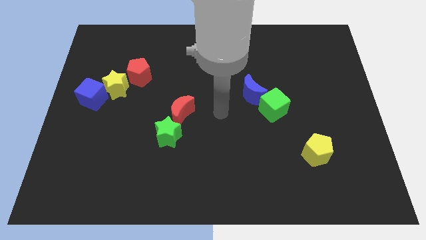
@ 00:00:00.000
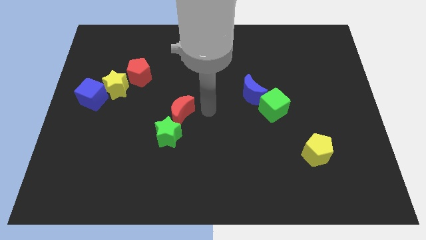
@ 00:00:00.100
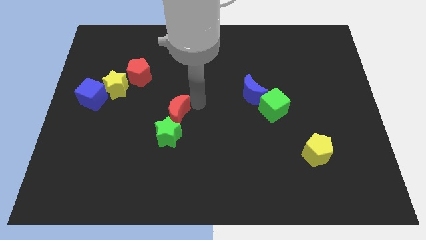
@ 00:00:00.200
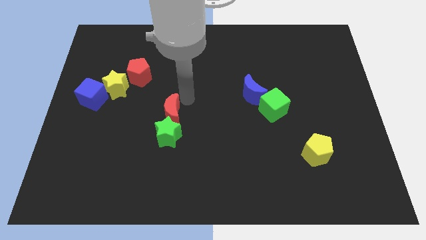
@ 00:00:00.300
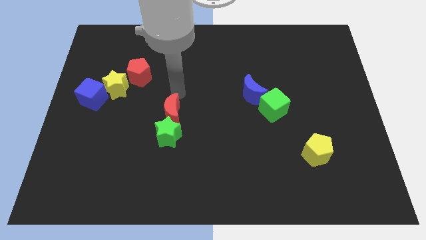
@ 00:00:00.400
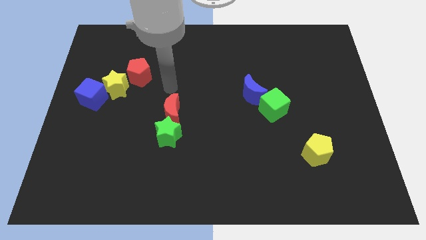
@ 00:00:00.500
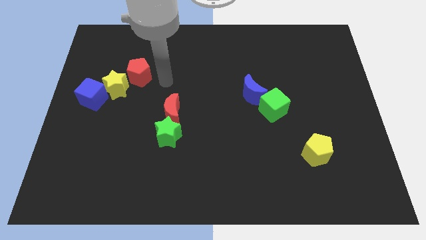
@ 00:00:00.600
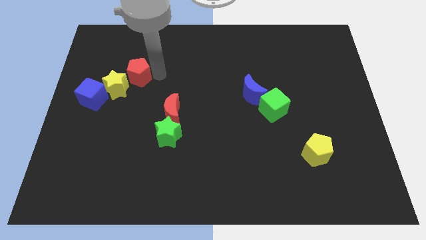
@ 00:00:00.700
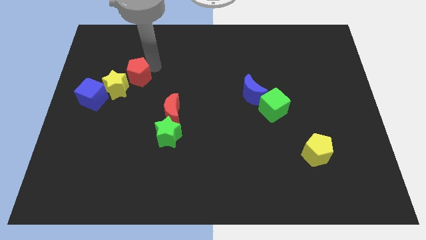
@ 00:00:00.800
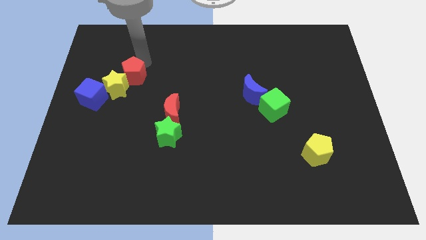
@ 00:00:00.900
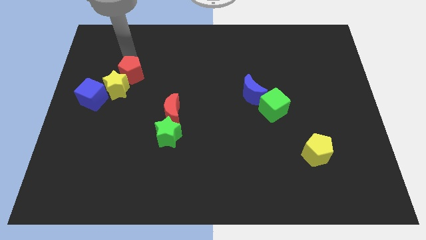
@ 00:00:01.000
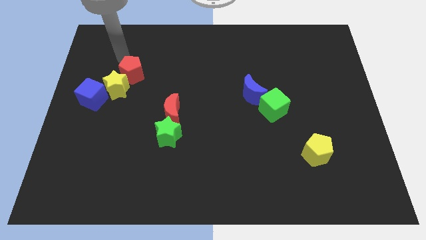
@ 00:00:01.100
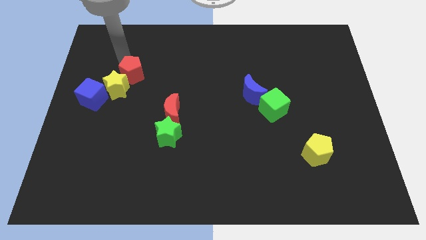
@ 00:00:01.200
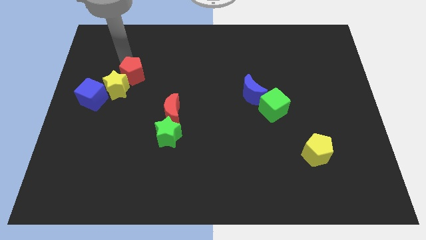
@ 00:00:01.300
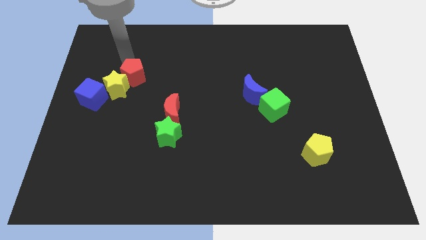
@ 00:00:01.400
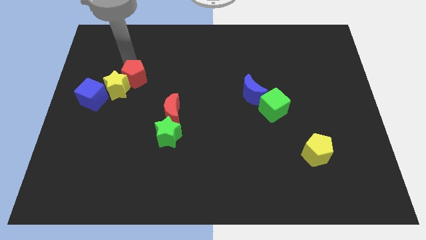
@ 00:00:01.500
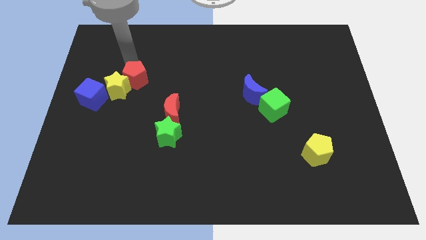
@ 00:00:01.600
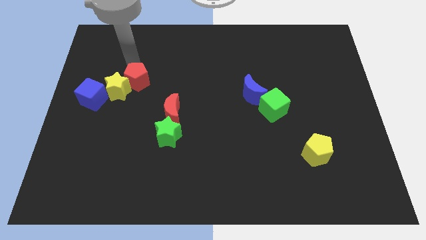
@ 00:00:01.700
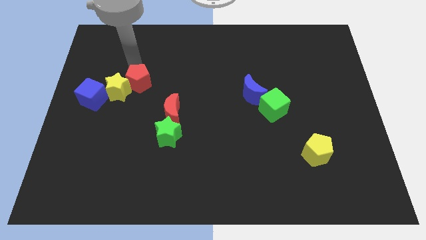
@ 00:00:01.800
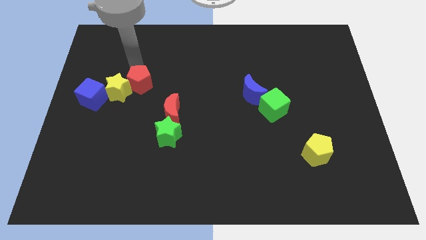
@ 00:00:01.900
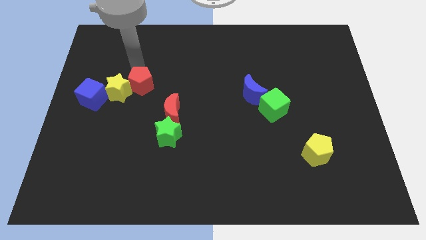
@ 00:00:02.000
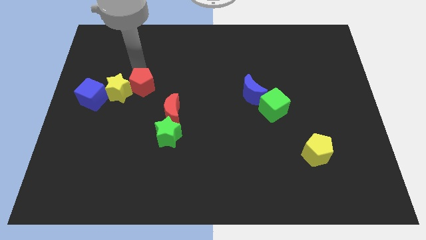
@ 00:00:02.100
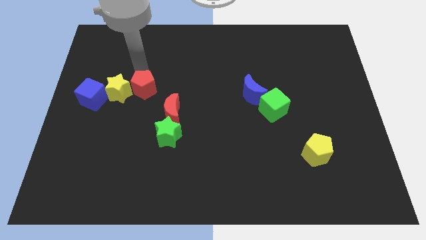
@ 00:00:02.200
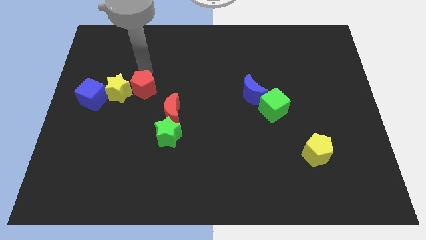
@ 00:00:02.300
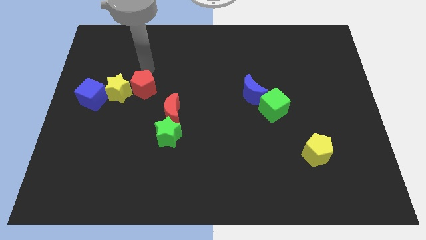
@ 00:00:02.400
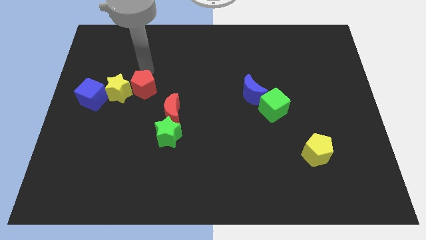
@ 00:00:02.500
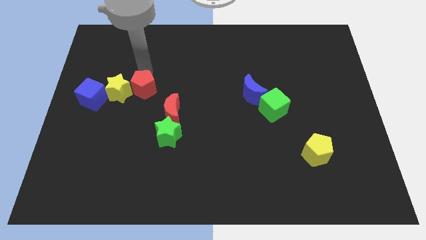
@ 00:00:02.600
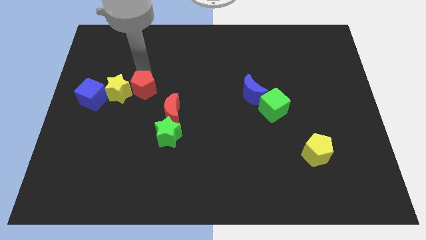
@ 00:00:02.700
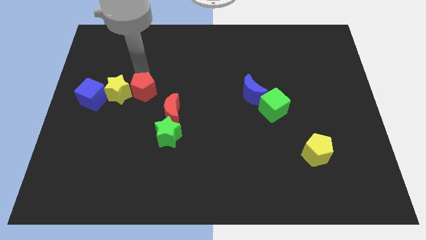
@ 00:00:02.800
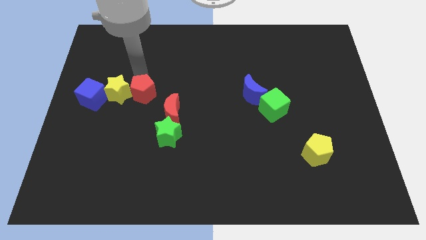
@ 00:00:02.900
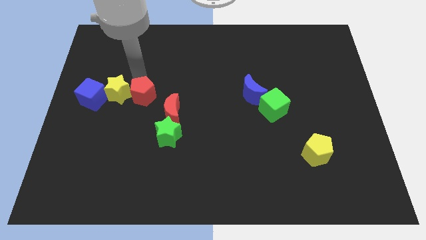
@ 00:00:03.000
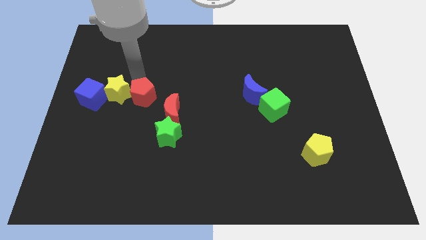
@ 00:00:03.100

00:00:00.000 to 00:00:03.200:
slightly move the red pentagon down

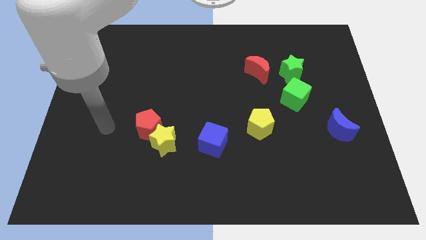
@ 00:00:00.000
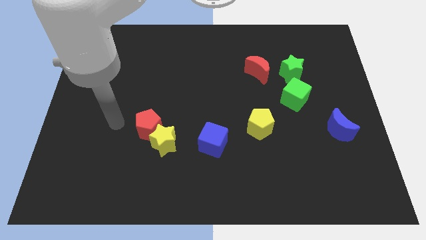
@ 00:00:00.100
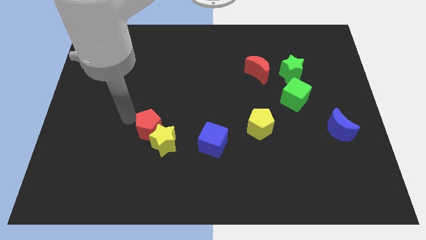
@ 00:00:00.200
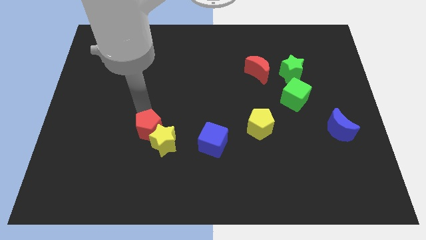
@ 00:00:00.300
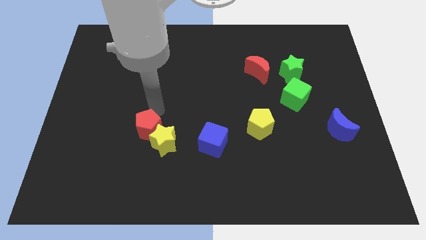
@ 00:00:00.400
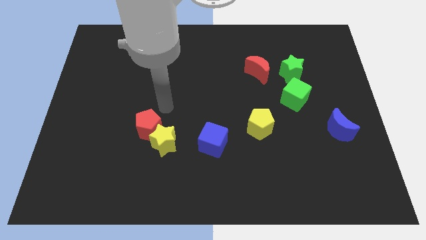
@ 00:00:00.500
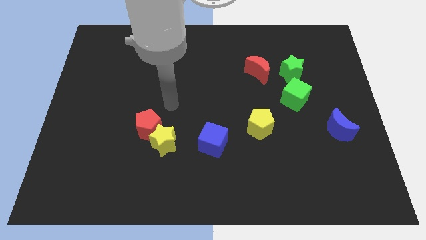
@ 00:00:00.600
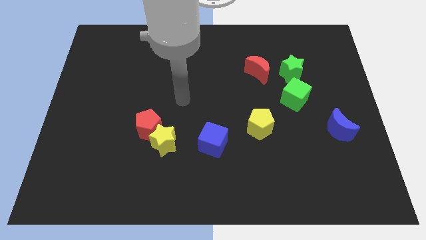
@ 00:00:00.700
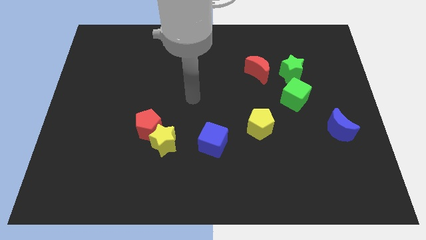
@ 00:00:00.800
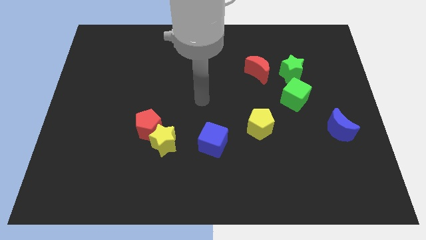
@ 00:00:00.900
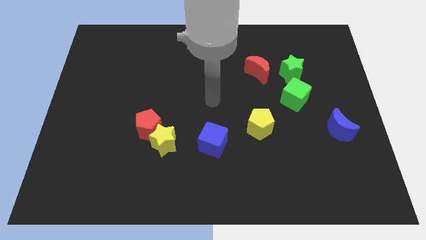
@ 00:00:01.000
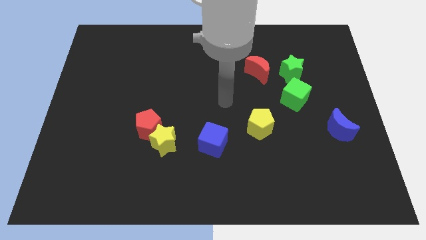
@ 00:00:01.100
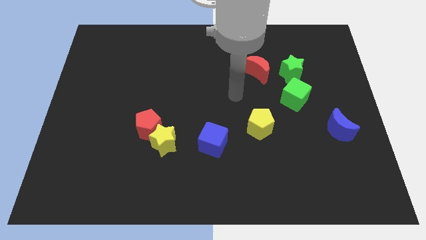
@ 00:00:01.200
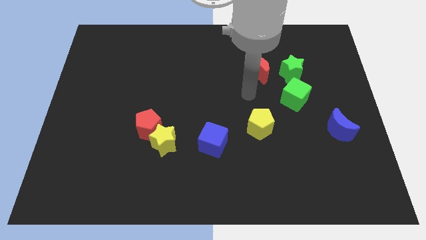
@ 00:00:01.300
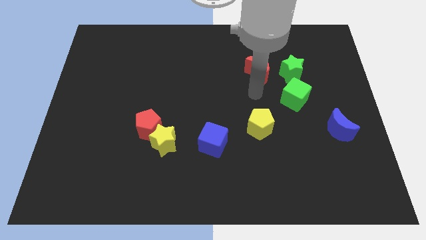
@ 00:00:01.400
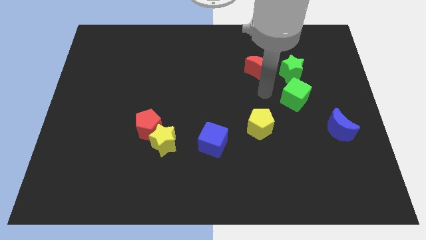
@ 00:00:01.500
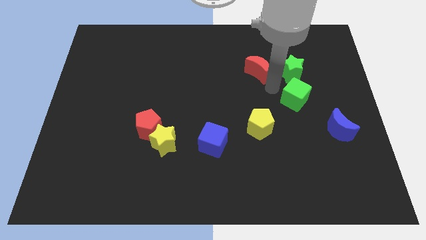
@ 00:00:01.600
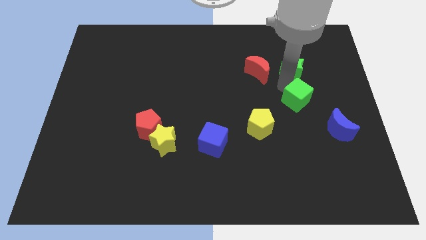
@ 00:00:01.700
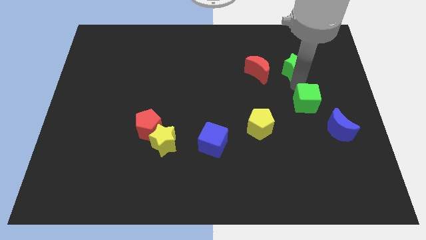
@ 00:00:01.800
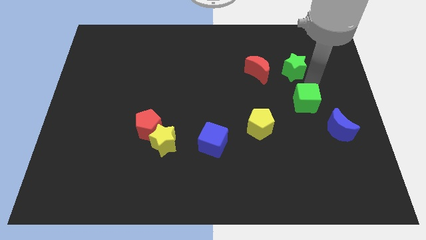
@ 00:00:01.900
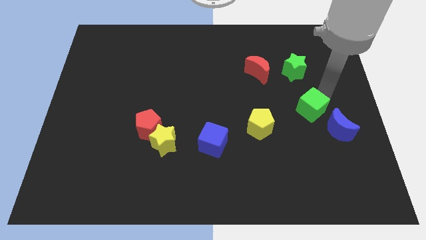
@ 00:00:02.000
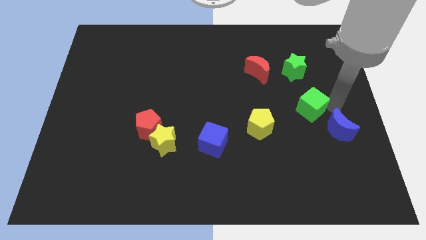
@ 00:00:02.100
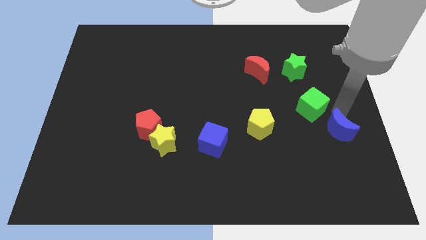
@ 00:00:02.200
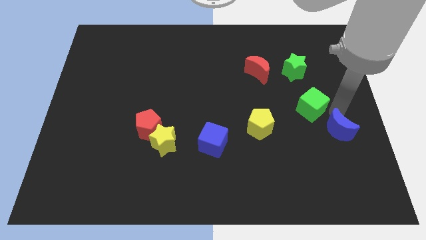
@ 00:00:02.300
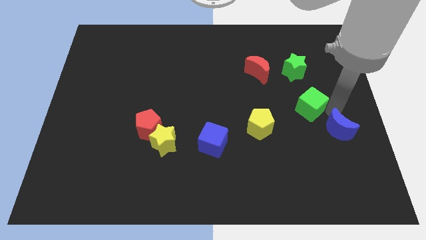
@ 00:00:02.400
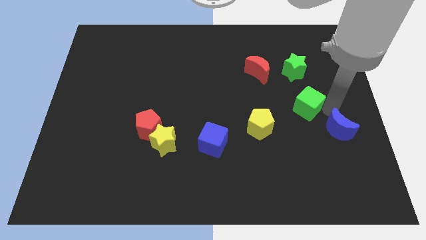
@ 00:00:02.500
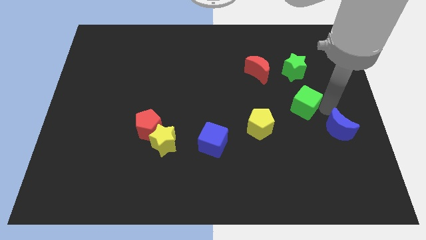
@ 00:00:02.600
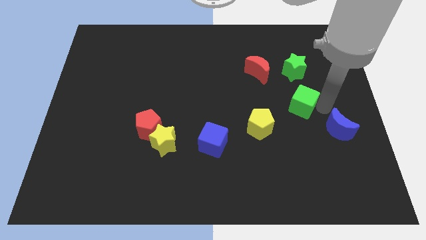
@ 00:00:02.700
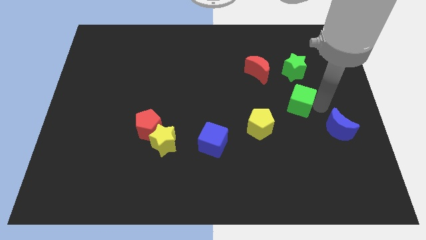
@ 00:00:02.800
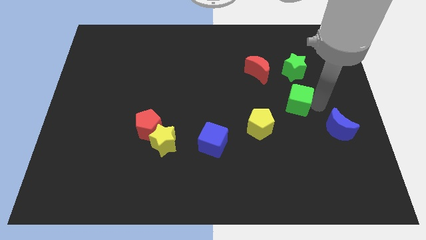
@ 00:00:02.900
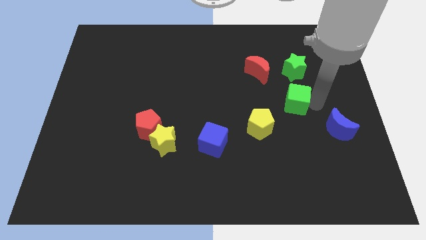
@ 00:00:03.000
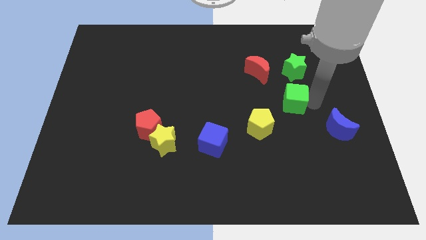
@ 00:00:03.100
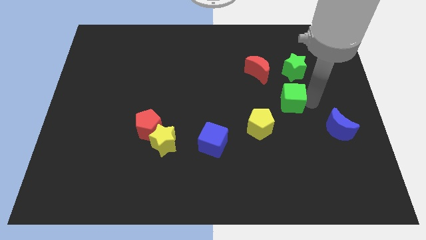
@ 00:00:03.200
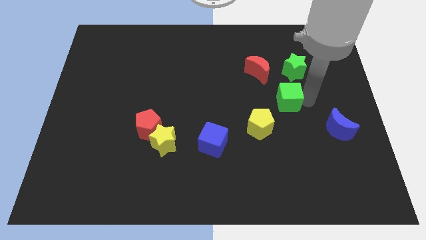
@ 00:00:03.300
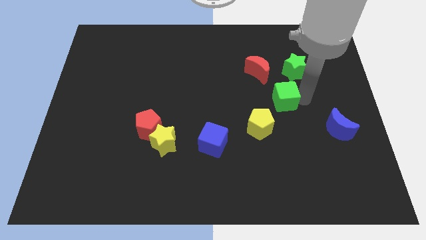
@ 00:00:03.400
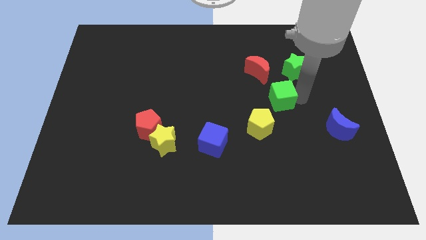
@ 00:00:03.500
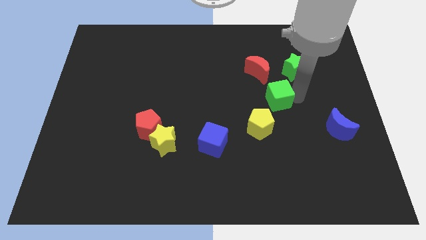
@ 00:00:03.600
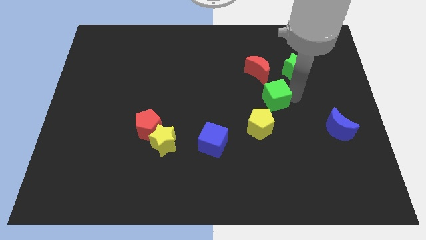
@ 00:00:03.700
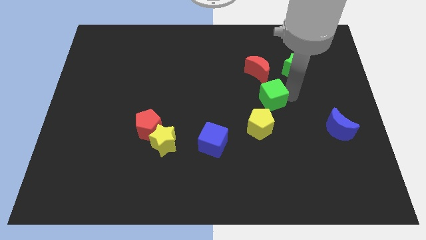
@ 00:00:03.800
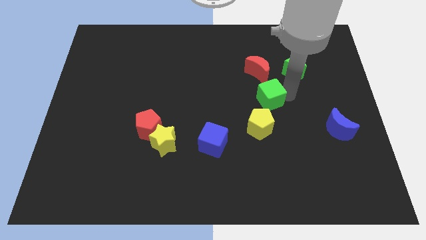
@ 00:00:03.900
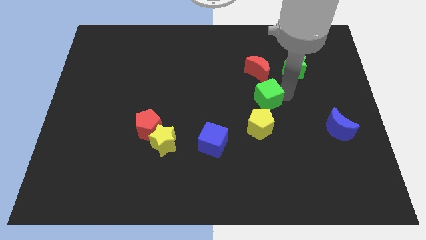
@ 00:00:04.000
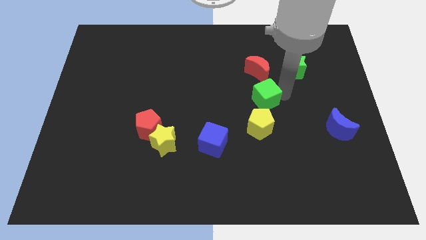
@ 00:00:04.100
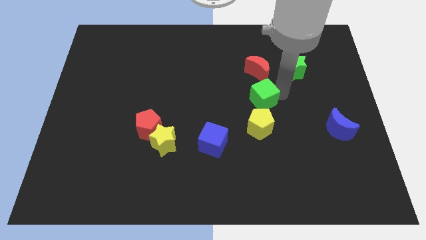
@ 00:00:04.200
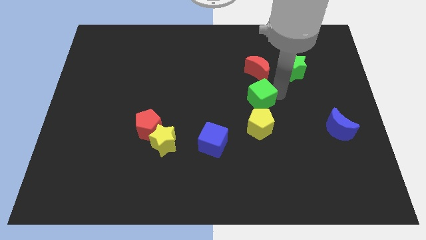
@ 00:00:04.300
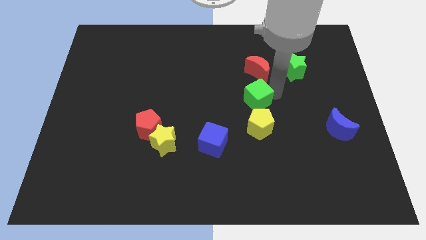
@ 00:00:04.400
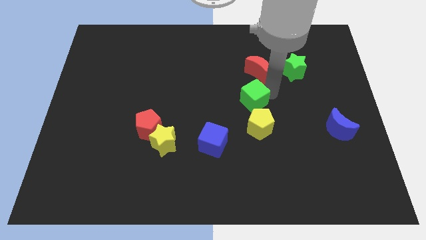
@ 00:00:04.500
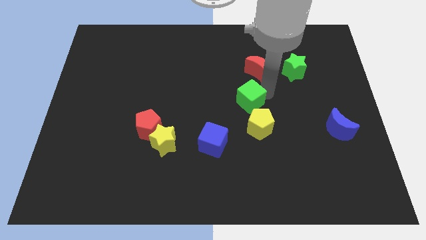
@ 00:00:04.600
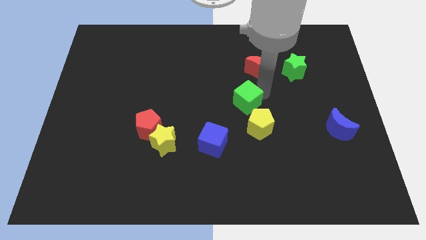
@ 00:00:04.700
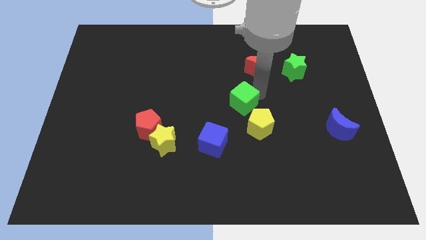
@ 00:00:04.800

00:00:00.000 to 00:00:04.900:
push the green cube somewhat downwards and then left
